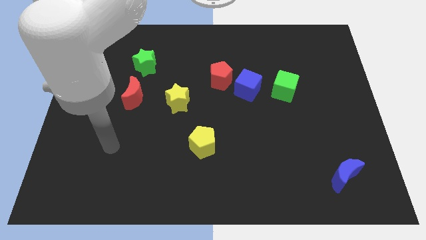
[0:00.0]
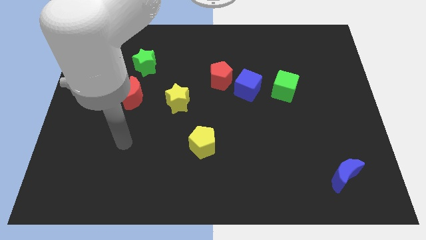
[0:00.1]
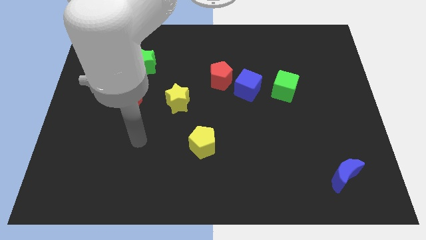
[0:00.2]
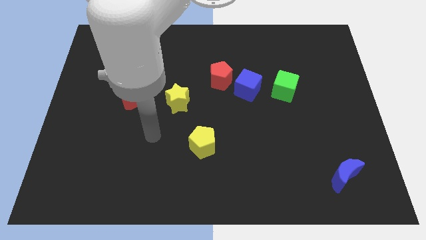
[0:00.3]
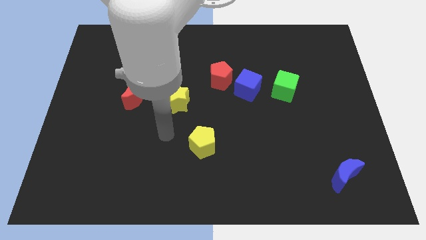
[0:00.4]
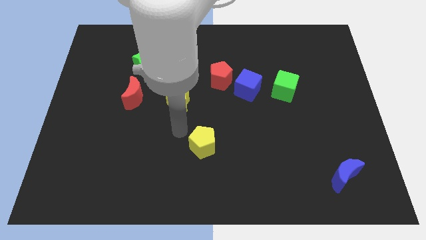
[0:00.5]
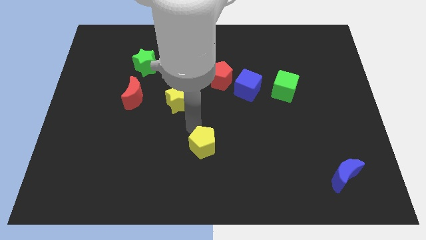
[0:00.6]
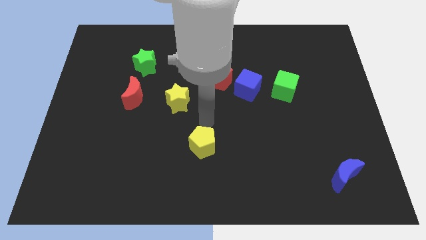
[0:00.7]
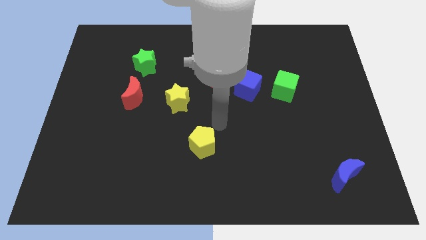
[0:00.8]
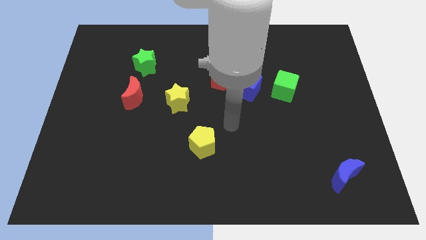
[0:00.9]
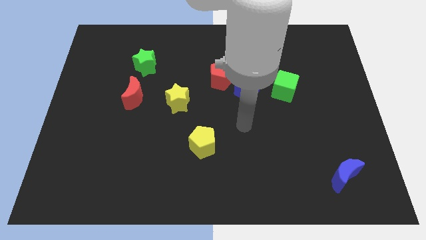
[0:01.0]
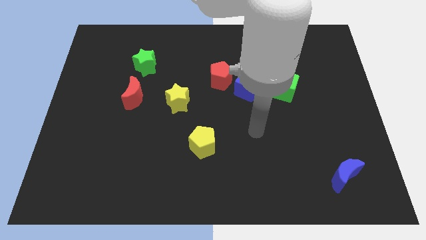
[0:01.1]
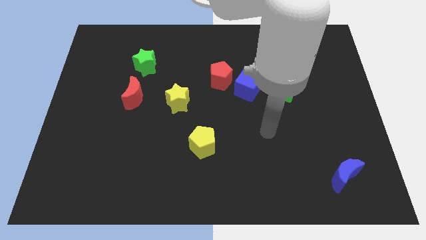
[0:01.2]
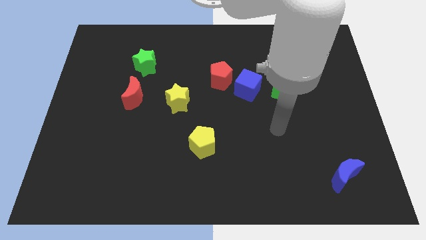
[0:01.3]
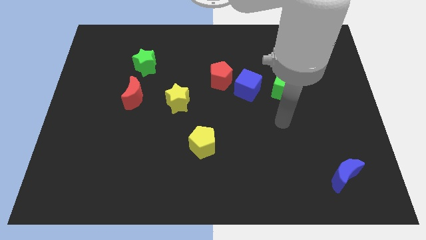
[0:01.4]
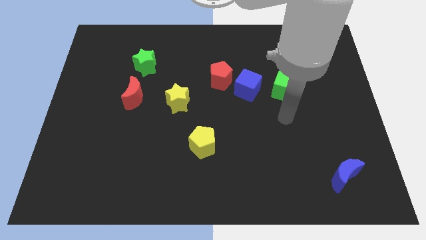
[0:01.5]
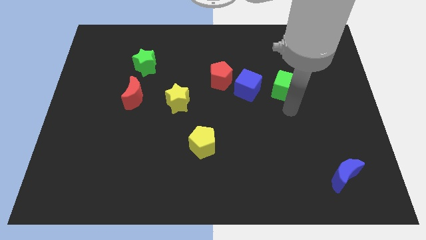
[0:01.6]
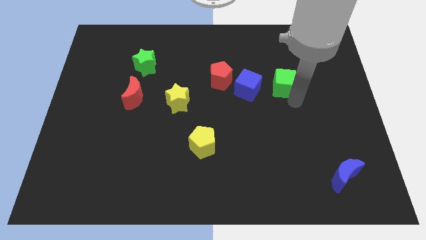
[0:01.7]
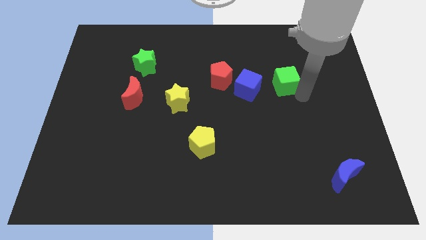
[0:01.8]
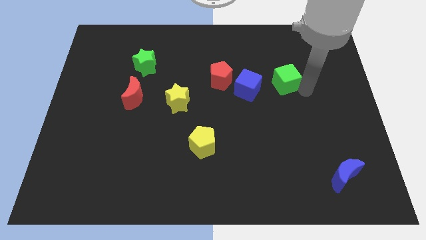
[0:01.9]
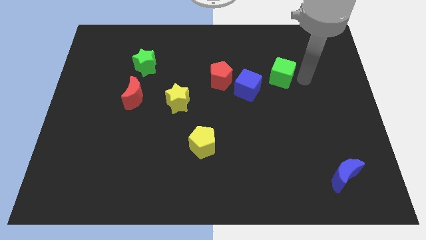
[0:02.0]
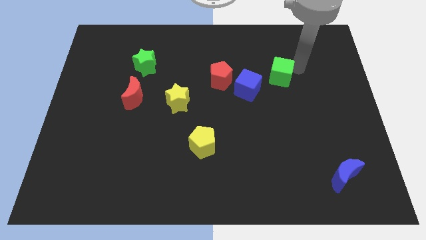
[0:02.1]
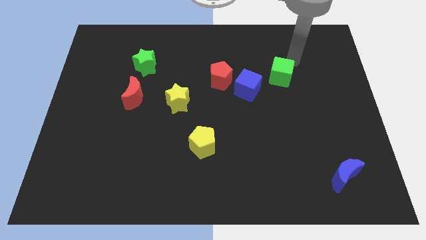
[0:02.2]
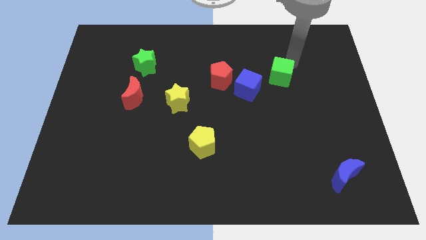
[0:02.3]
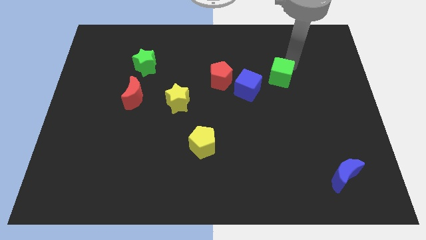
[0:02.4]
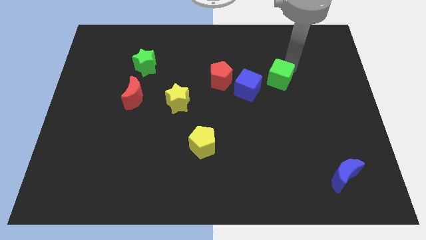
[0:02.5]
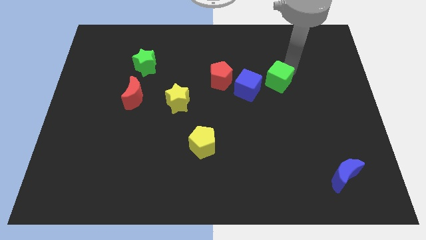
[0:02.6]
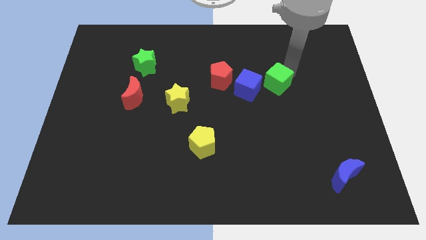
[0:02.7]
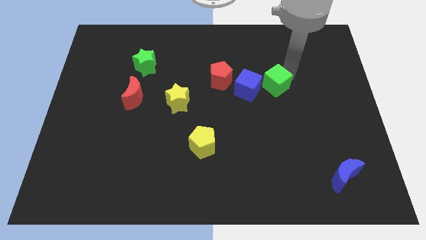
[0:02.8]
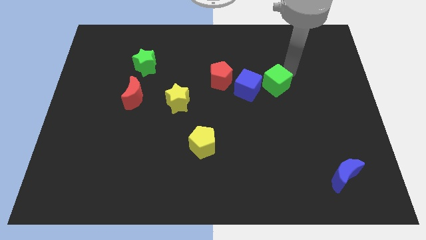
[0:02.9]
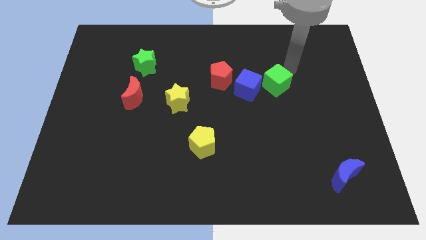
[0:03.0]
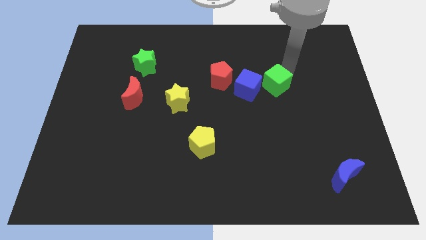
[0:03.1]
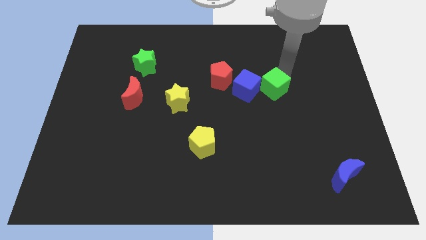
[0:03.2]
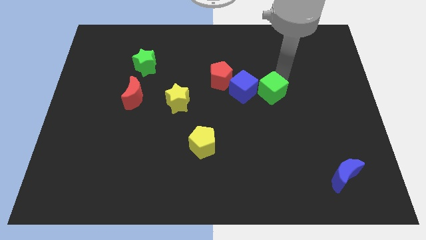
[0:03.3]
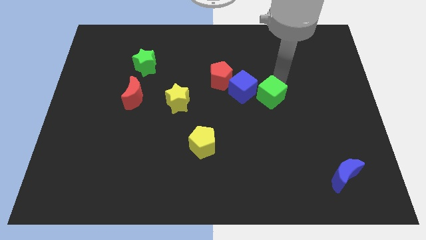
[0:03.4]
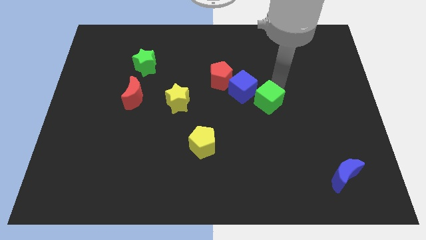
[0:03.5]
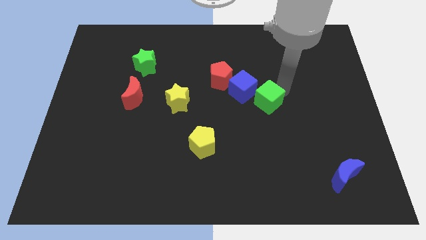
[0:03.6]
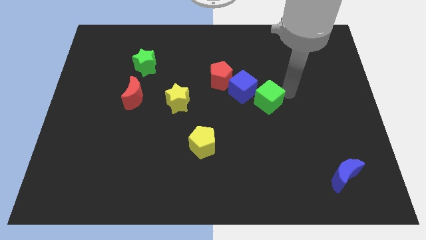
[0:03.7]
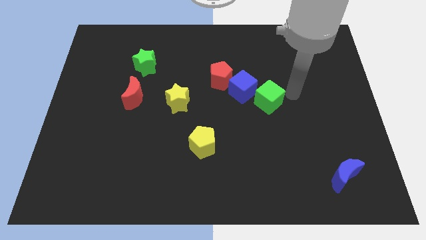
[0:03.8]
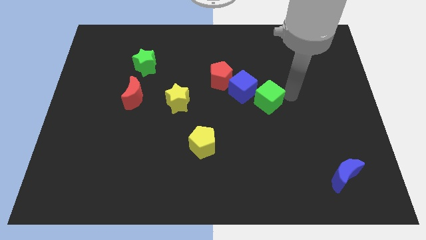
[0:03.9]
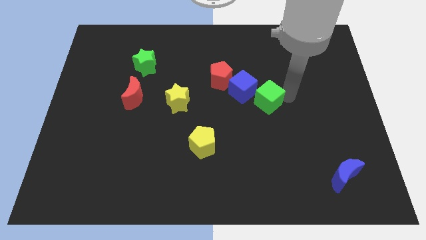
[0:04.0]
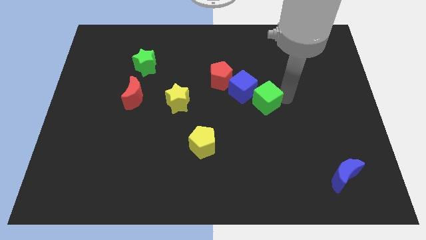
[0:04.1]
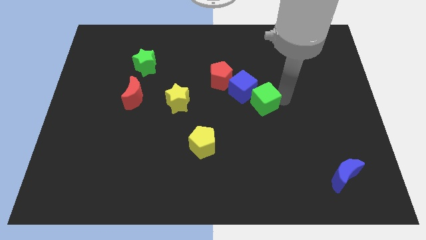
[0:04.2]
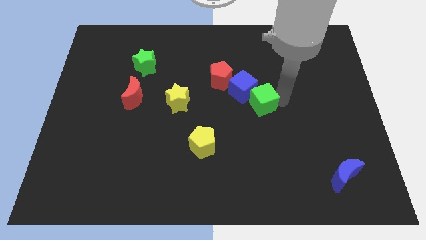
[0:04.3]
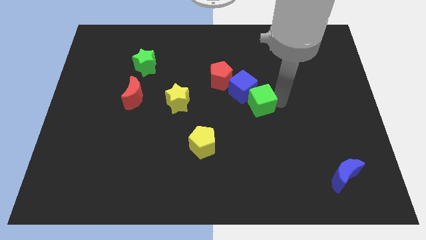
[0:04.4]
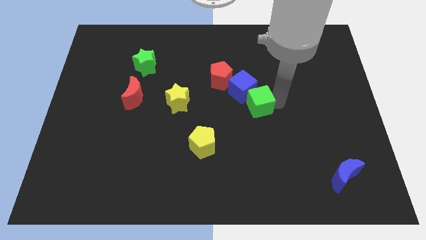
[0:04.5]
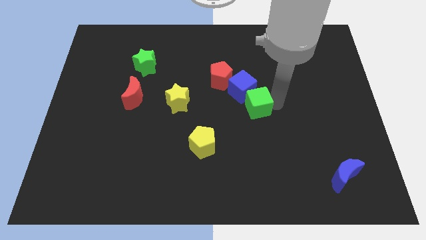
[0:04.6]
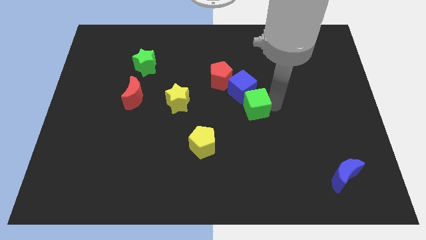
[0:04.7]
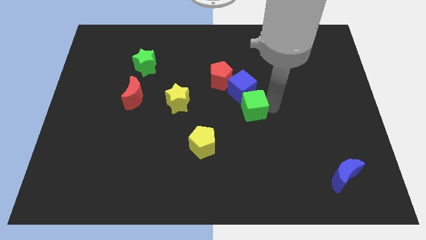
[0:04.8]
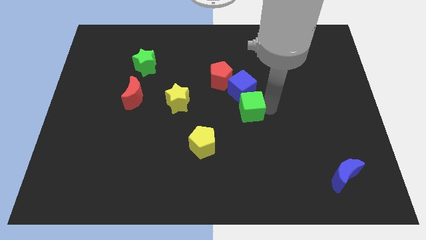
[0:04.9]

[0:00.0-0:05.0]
slide the green cube a little to the left

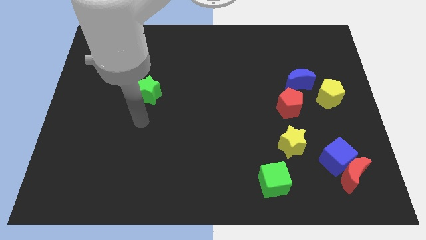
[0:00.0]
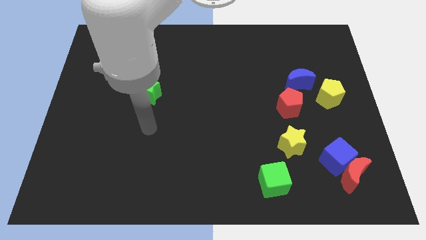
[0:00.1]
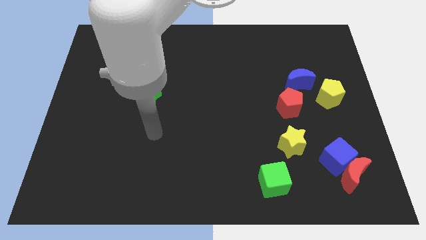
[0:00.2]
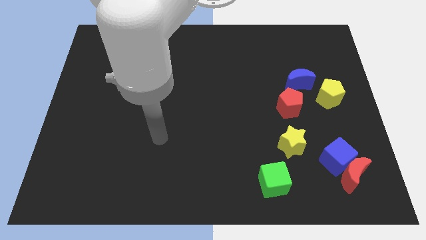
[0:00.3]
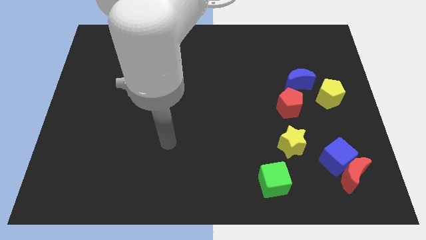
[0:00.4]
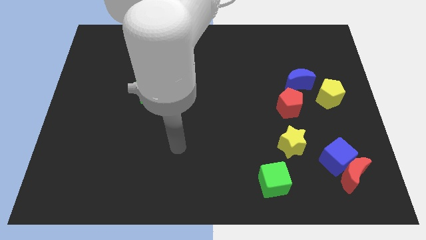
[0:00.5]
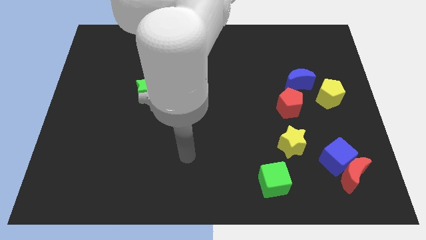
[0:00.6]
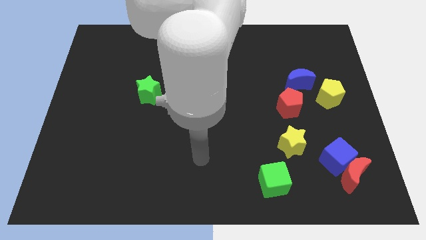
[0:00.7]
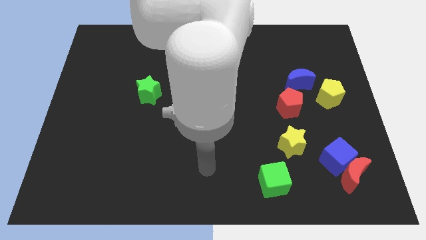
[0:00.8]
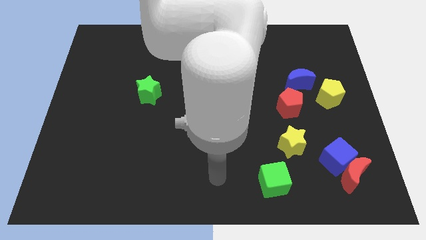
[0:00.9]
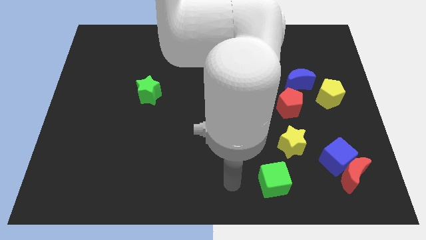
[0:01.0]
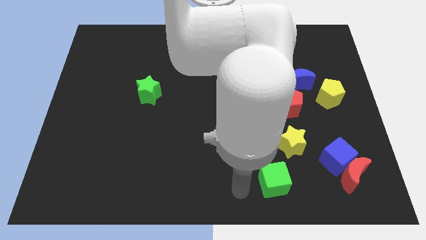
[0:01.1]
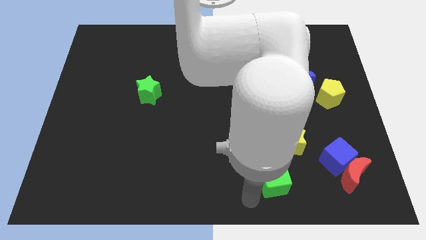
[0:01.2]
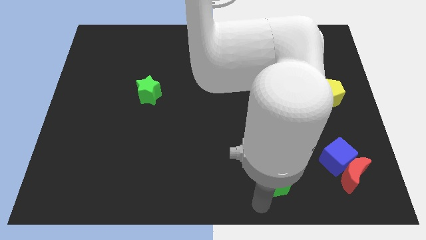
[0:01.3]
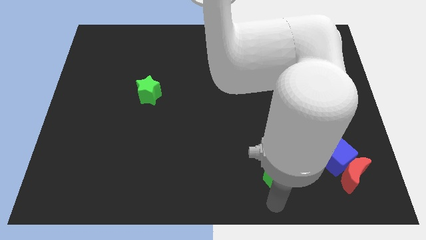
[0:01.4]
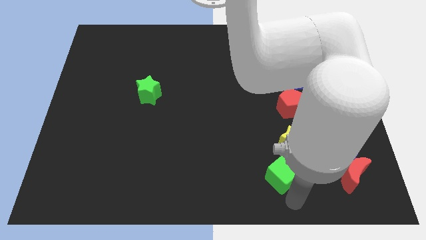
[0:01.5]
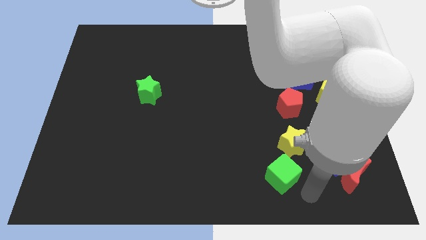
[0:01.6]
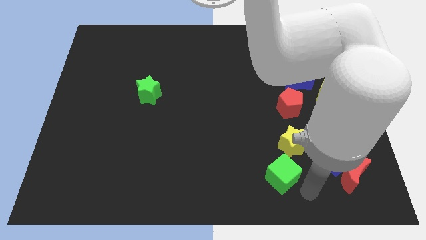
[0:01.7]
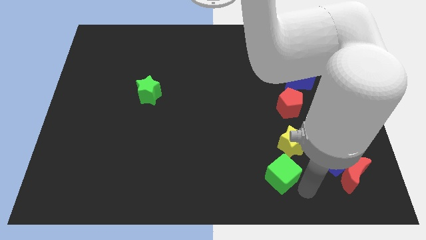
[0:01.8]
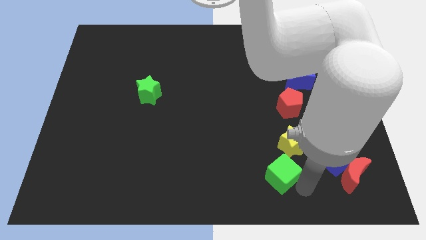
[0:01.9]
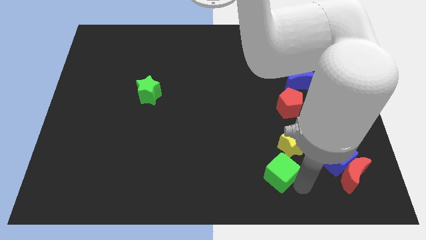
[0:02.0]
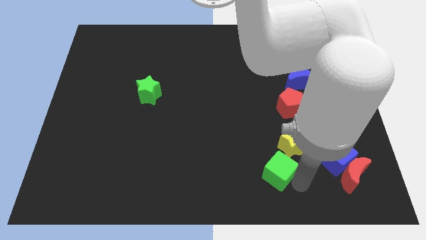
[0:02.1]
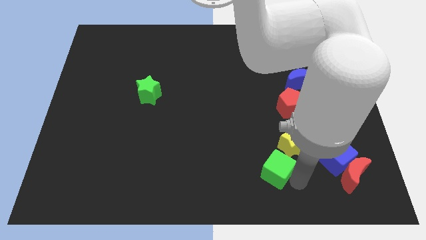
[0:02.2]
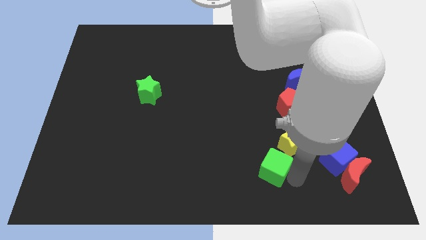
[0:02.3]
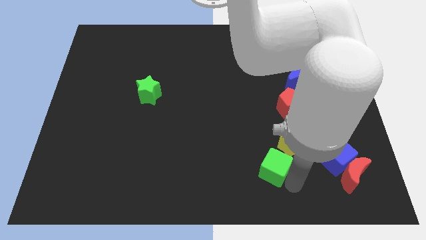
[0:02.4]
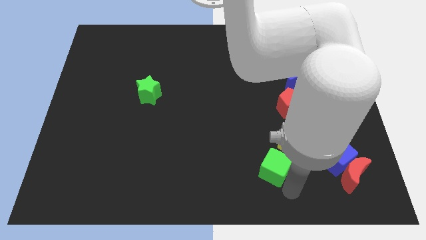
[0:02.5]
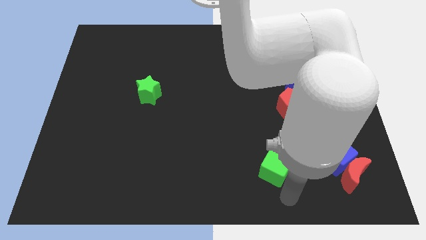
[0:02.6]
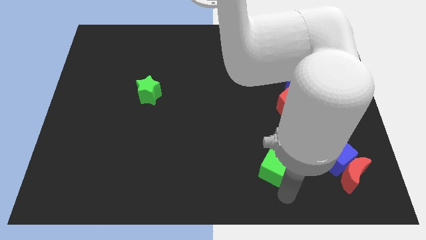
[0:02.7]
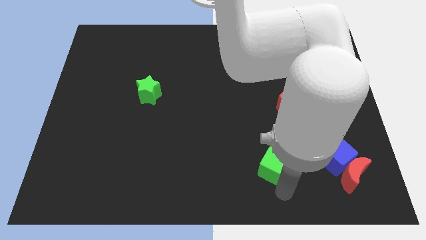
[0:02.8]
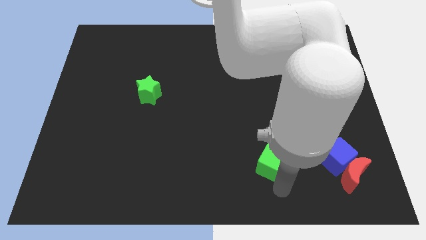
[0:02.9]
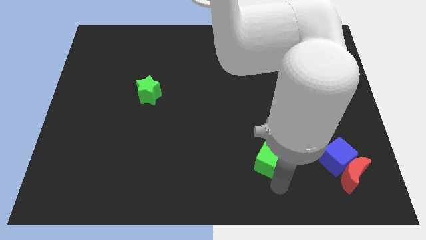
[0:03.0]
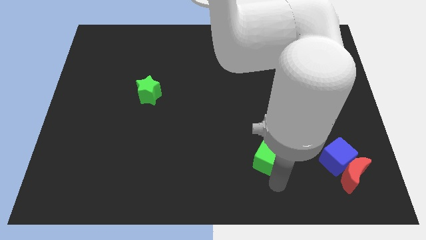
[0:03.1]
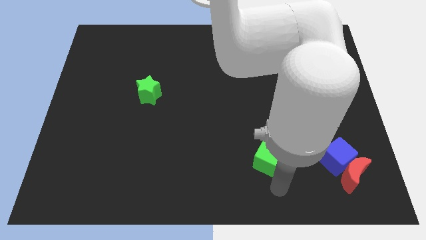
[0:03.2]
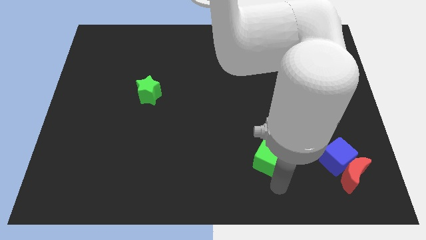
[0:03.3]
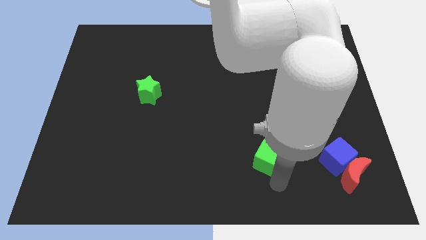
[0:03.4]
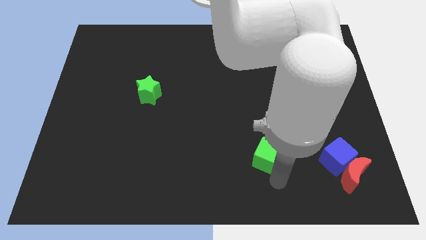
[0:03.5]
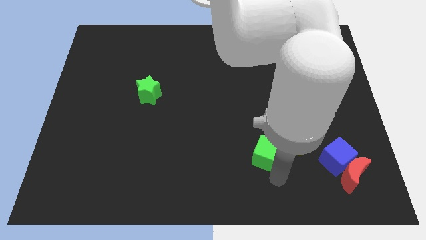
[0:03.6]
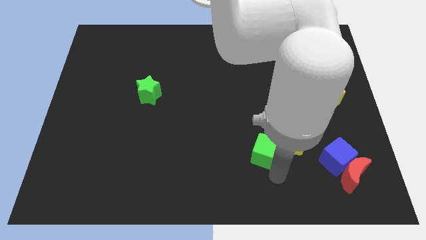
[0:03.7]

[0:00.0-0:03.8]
slide the green cube a little bit upwards
